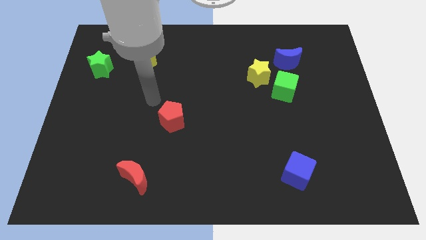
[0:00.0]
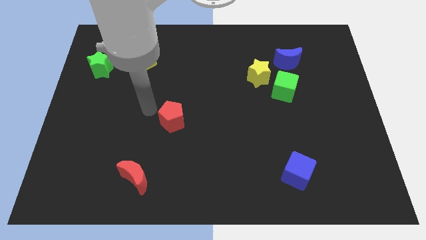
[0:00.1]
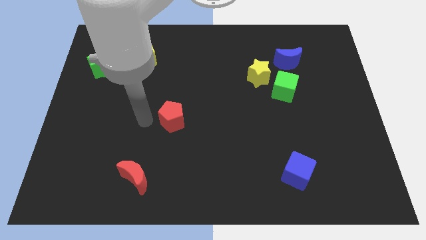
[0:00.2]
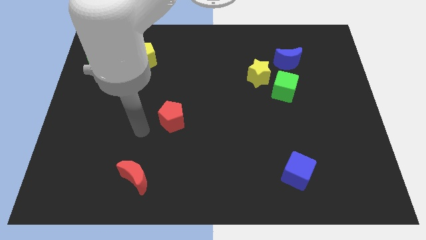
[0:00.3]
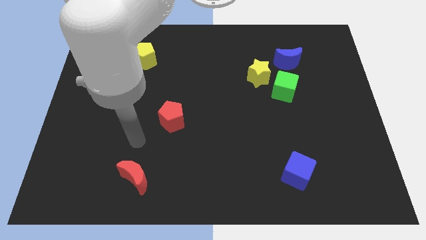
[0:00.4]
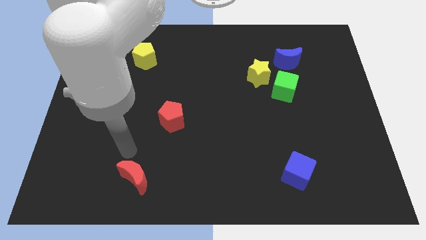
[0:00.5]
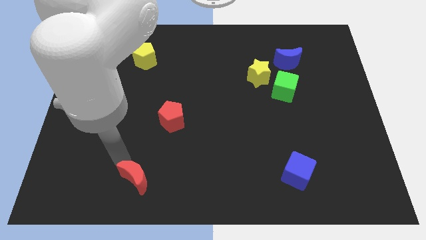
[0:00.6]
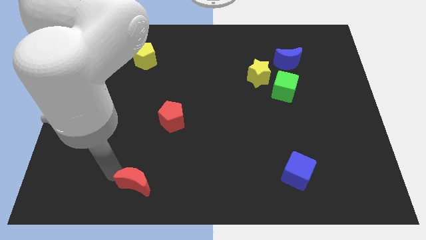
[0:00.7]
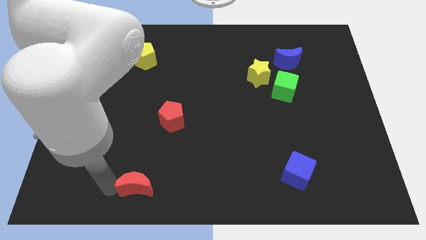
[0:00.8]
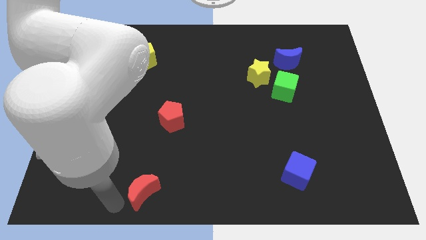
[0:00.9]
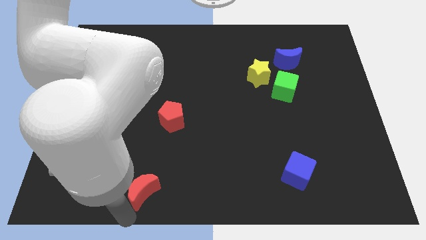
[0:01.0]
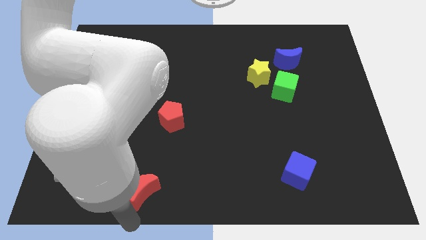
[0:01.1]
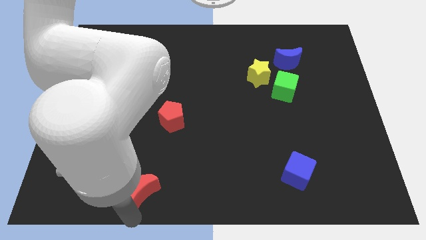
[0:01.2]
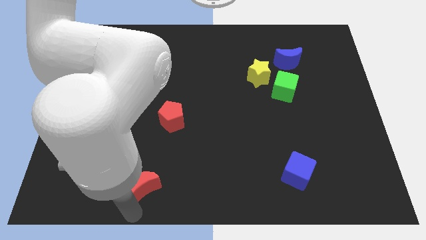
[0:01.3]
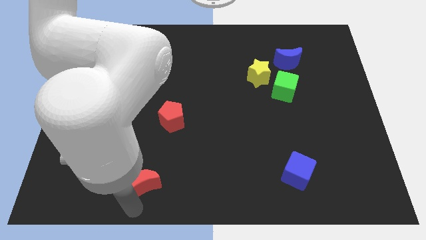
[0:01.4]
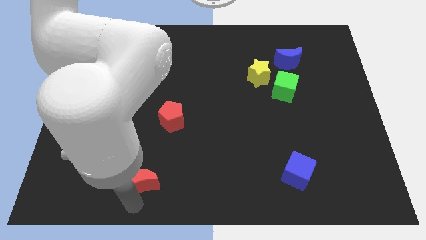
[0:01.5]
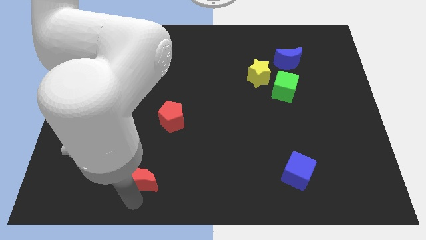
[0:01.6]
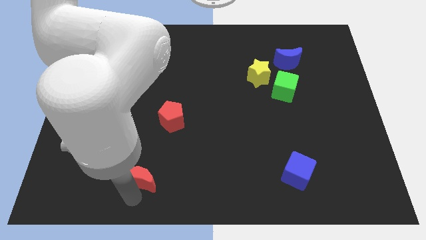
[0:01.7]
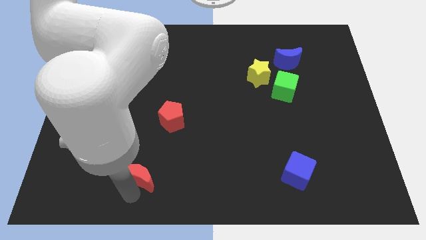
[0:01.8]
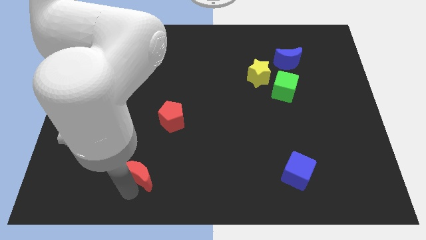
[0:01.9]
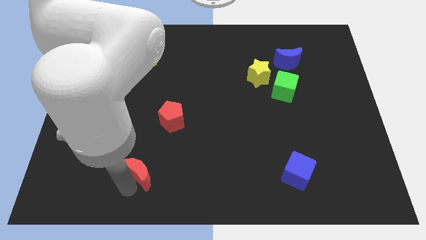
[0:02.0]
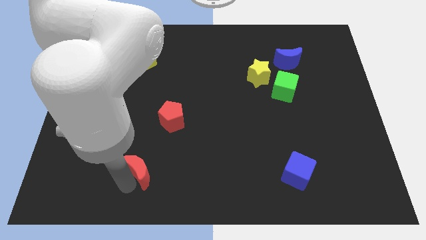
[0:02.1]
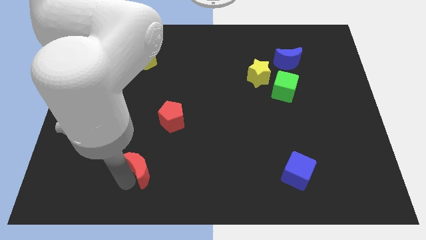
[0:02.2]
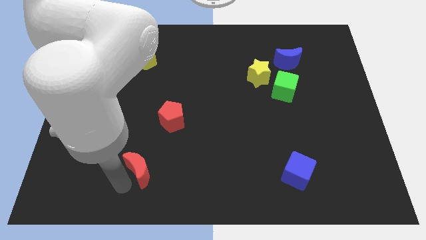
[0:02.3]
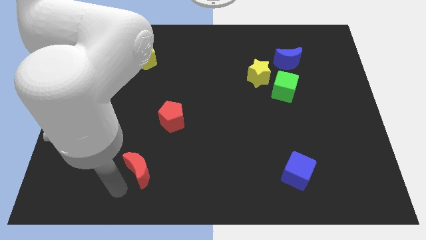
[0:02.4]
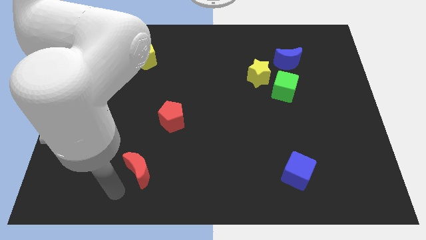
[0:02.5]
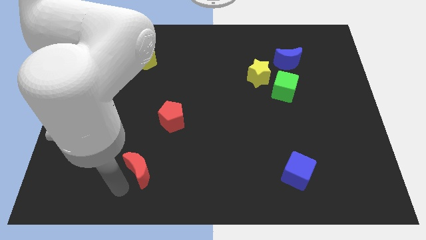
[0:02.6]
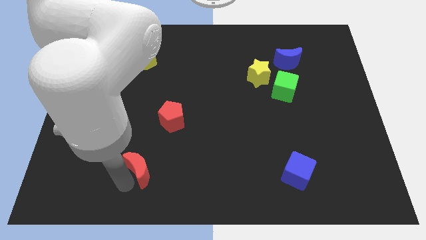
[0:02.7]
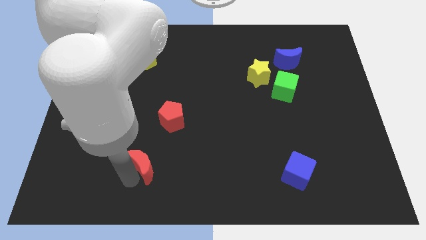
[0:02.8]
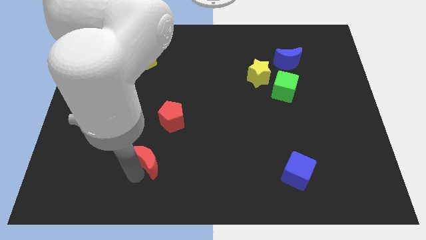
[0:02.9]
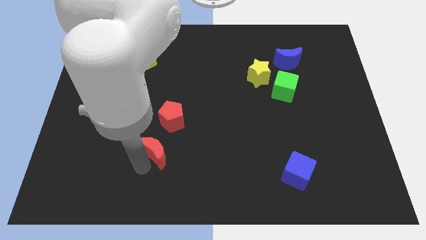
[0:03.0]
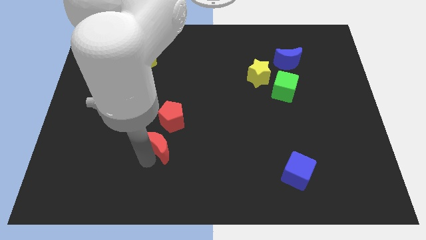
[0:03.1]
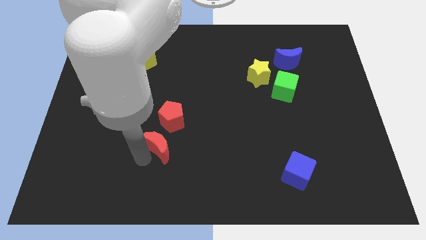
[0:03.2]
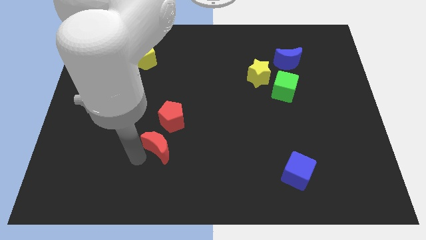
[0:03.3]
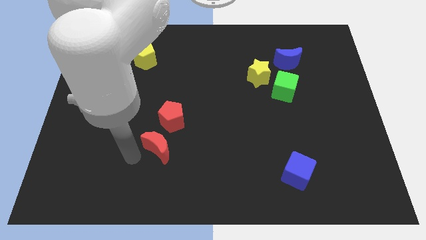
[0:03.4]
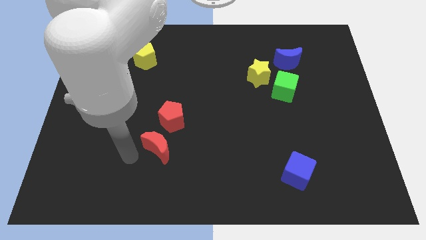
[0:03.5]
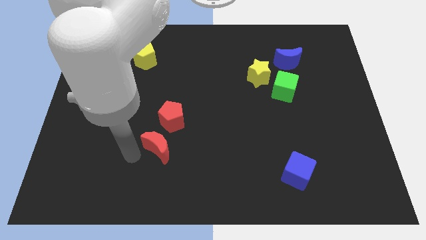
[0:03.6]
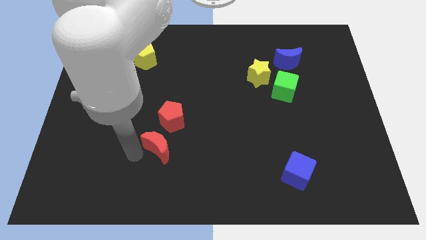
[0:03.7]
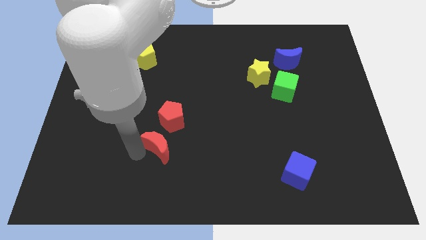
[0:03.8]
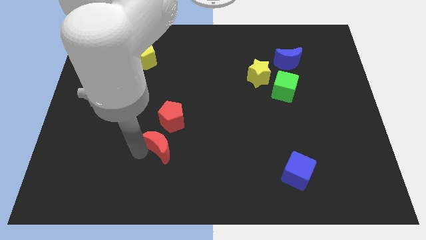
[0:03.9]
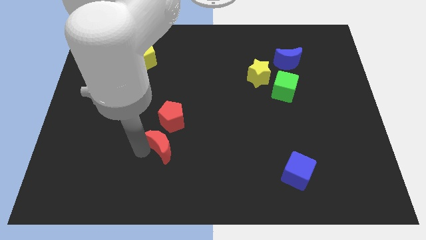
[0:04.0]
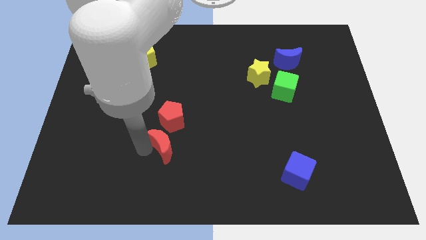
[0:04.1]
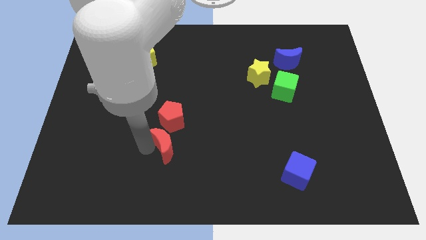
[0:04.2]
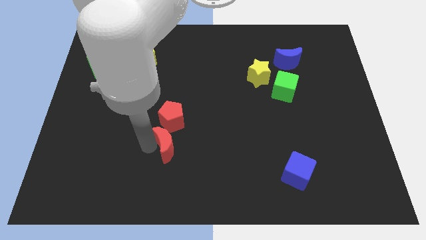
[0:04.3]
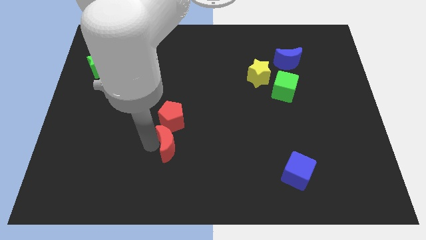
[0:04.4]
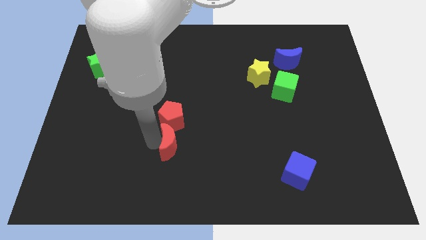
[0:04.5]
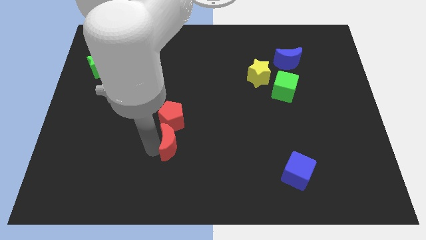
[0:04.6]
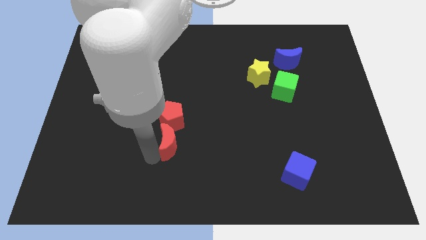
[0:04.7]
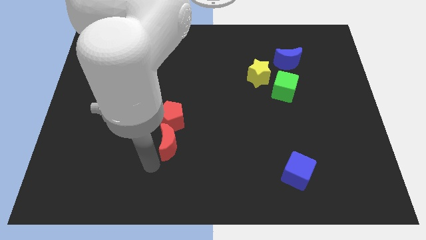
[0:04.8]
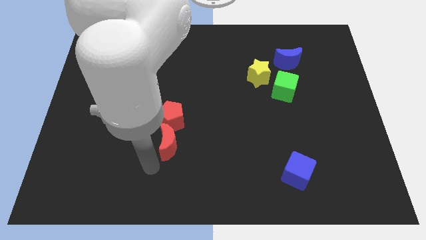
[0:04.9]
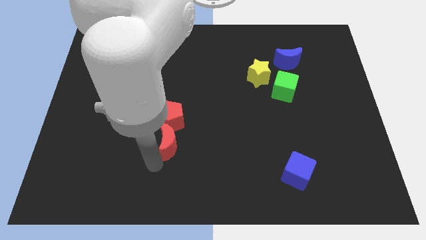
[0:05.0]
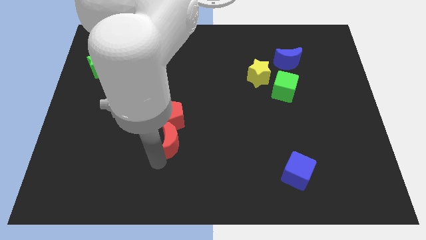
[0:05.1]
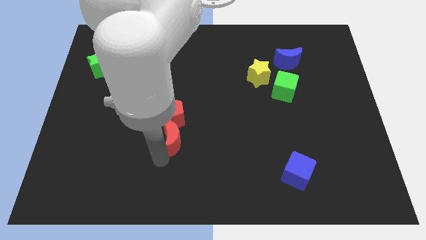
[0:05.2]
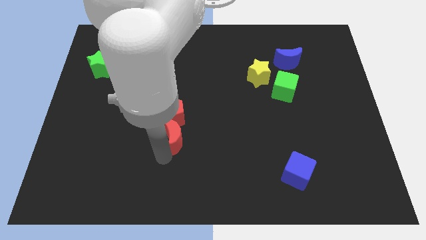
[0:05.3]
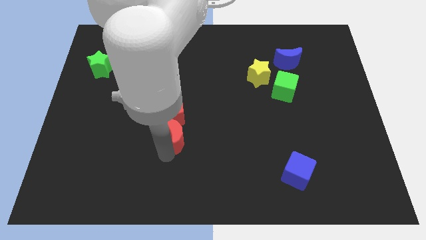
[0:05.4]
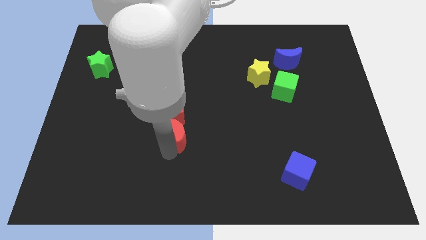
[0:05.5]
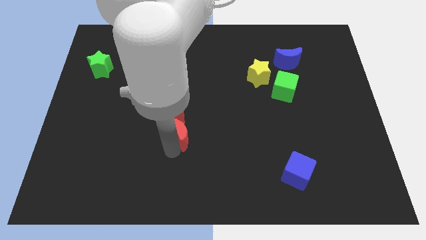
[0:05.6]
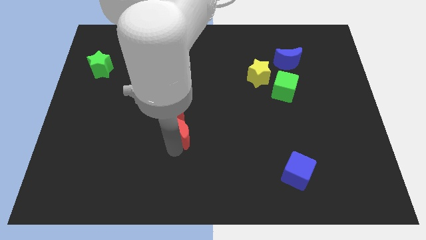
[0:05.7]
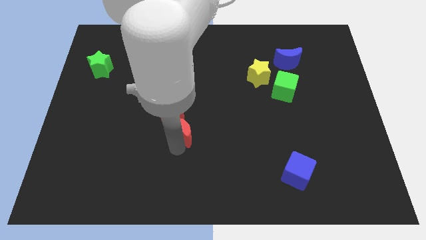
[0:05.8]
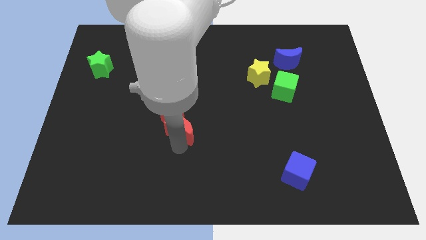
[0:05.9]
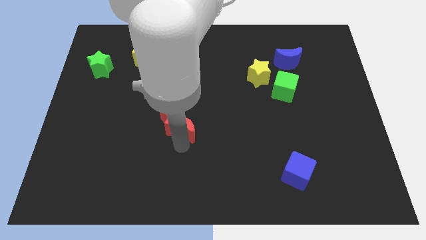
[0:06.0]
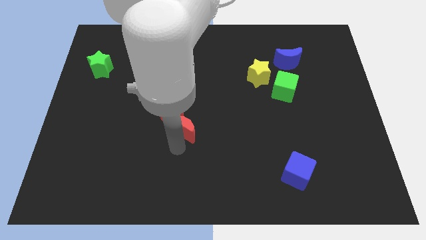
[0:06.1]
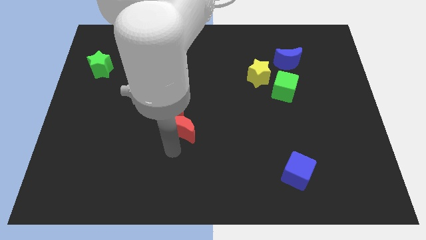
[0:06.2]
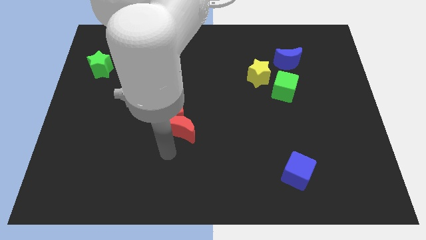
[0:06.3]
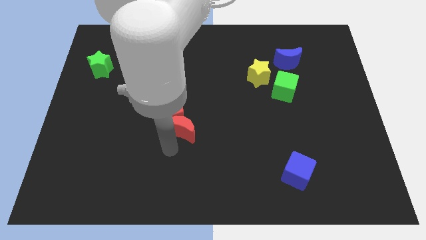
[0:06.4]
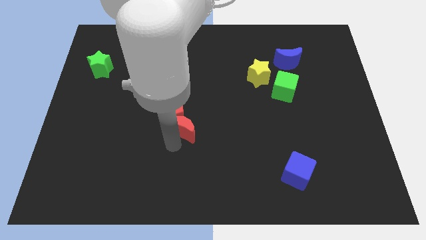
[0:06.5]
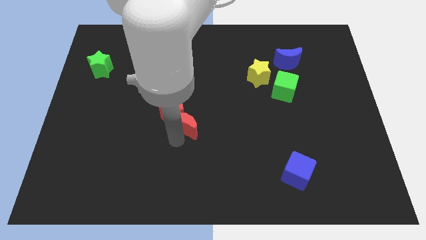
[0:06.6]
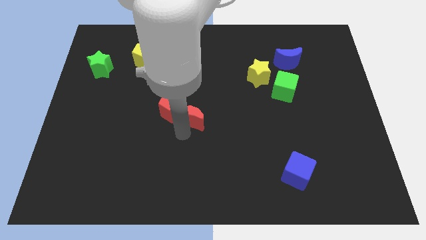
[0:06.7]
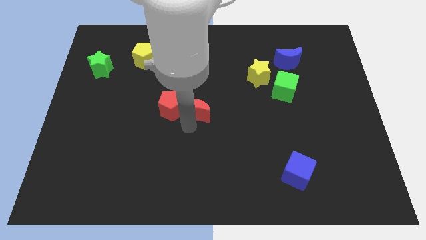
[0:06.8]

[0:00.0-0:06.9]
slide the red moon to the top right side of the red pentagon

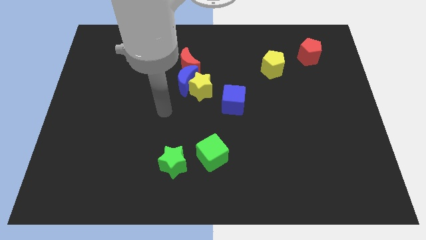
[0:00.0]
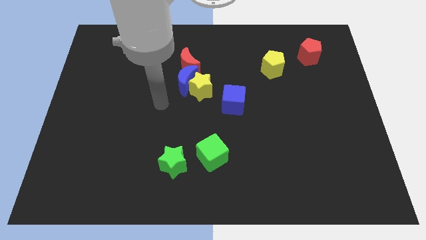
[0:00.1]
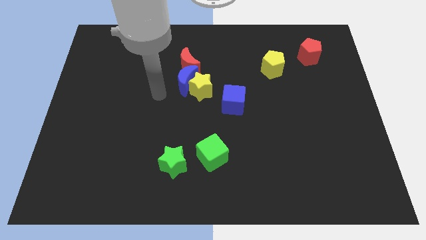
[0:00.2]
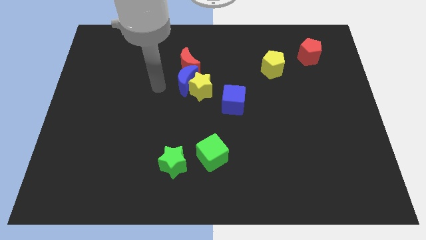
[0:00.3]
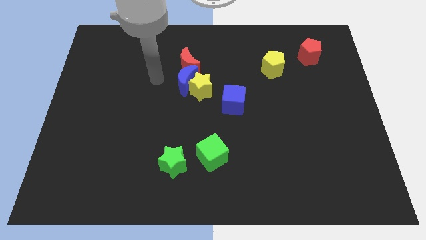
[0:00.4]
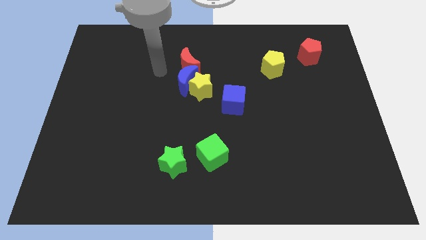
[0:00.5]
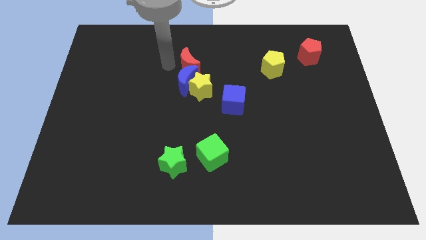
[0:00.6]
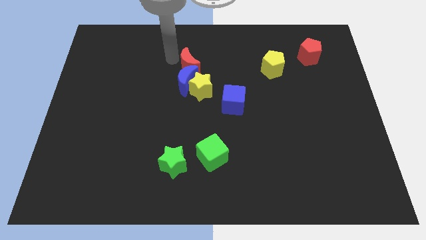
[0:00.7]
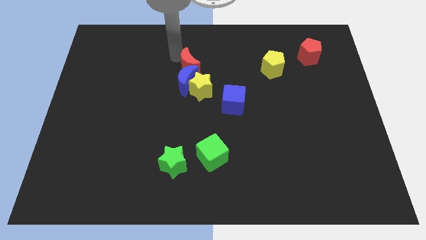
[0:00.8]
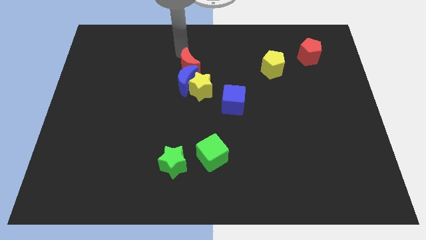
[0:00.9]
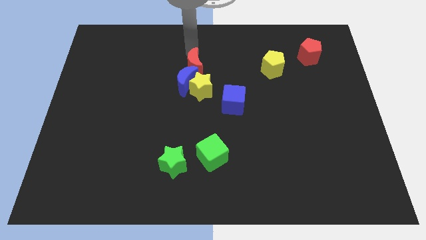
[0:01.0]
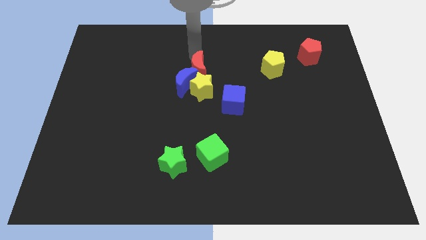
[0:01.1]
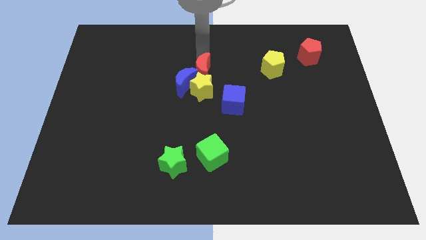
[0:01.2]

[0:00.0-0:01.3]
put the yellow star diagonally down and to the left of the red moon

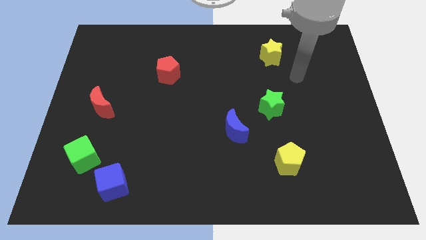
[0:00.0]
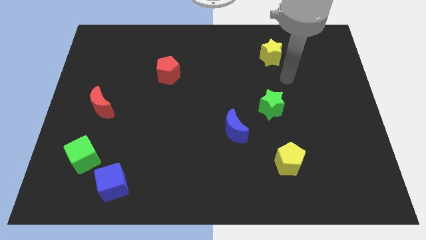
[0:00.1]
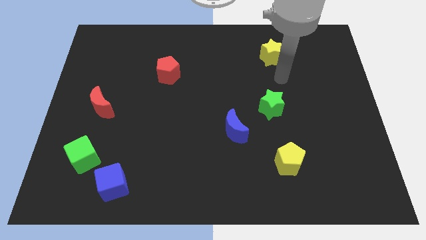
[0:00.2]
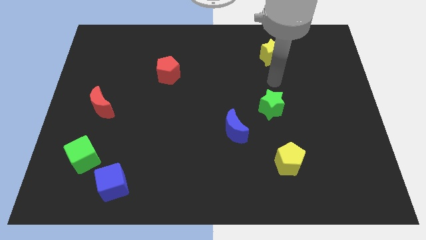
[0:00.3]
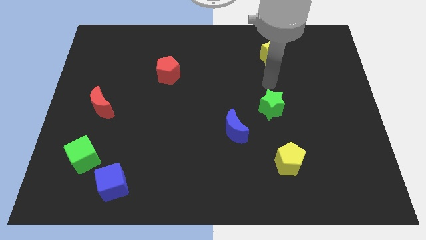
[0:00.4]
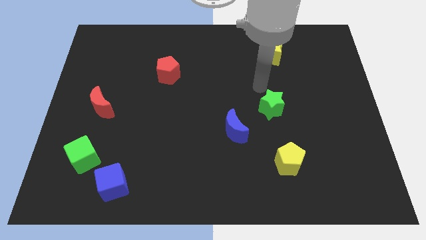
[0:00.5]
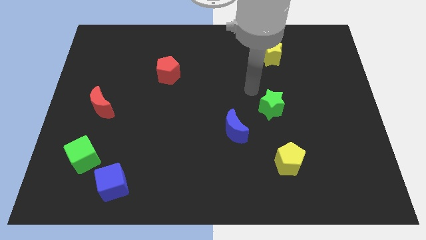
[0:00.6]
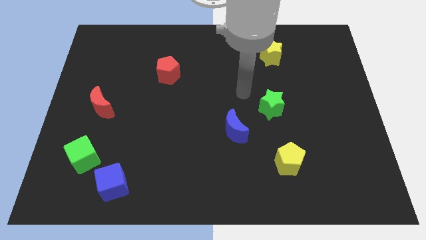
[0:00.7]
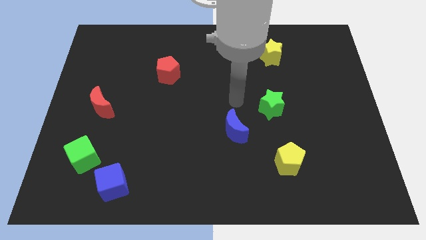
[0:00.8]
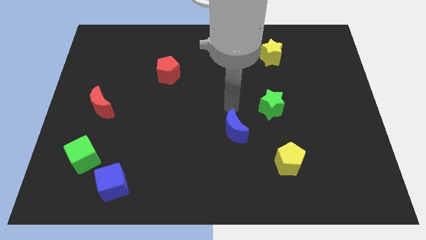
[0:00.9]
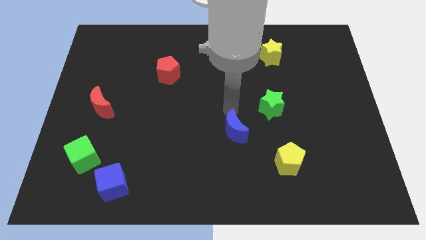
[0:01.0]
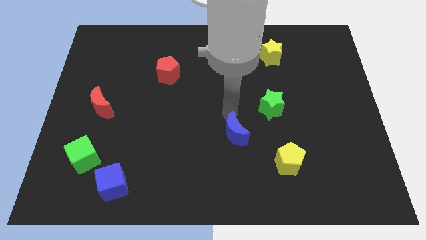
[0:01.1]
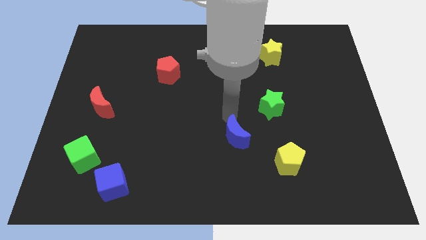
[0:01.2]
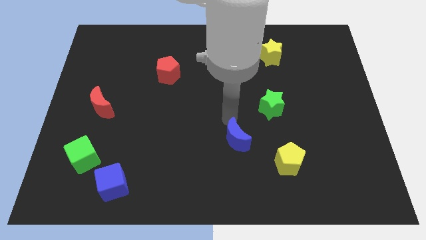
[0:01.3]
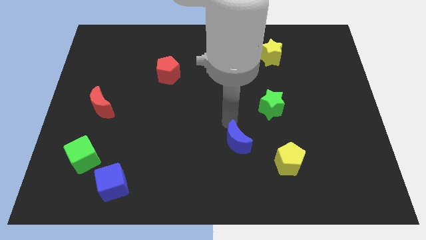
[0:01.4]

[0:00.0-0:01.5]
slide the blue moon to the left side of the yellow pentagon
